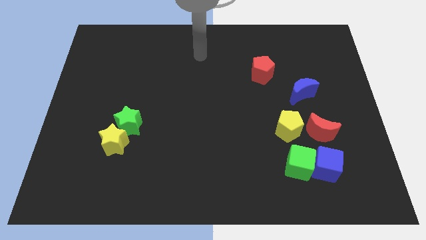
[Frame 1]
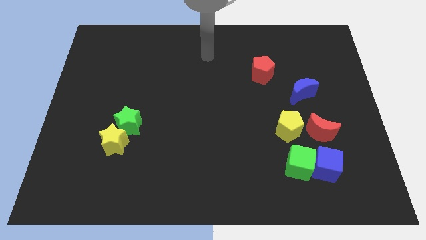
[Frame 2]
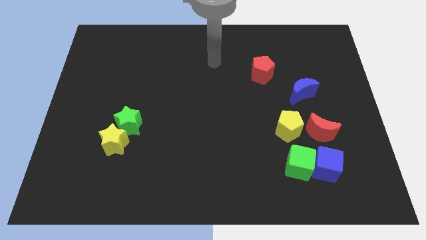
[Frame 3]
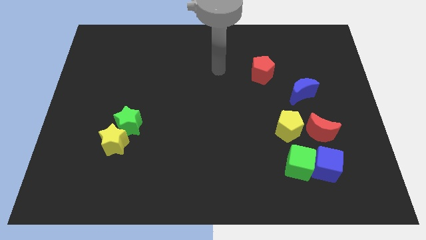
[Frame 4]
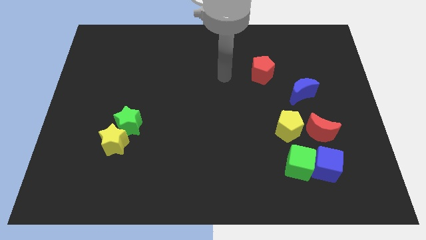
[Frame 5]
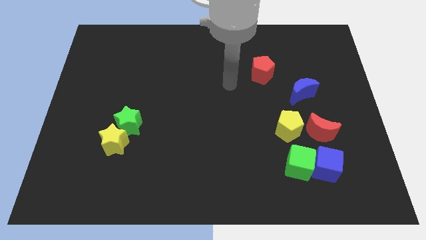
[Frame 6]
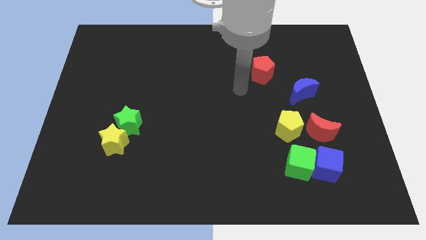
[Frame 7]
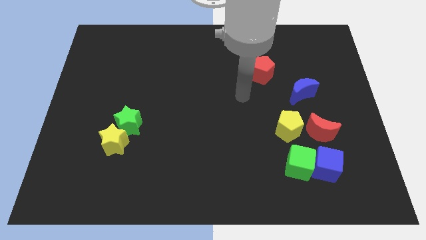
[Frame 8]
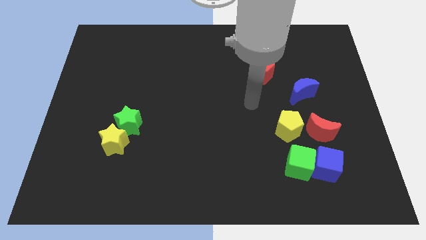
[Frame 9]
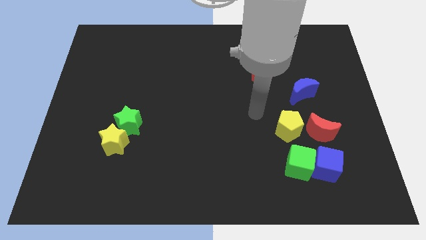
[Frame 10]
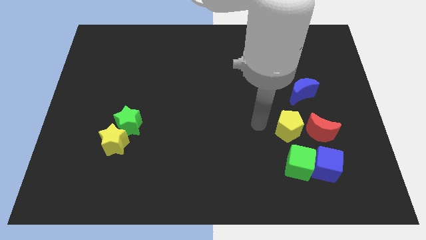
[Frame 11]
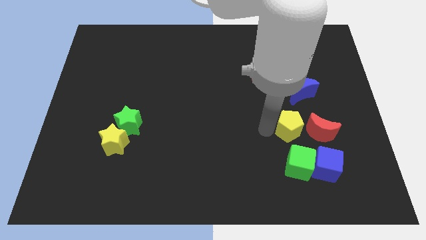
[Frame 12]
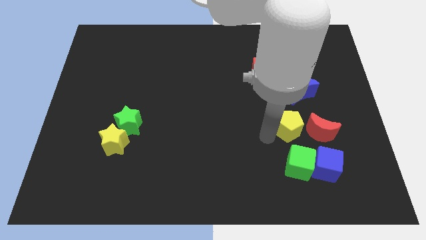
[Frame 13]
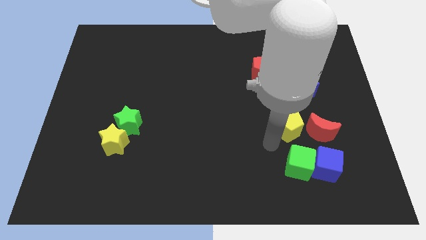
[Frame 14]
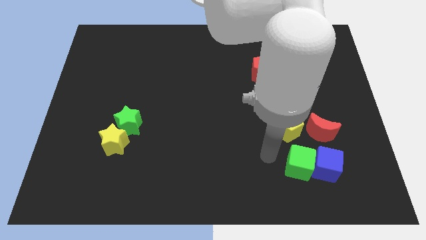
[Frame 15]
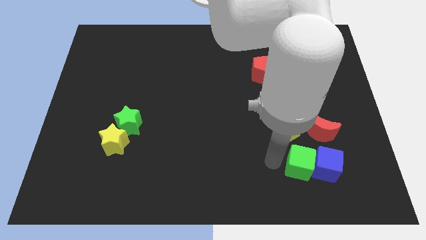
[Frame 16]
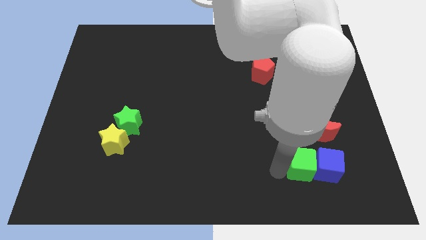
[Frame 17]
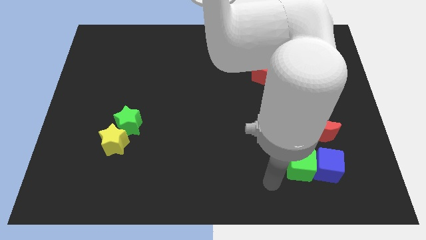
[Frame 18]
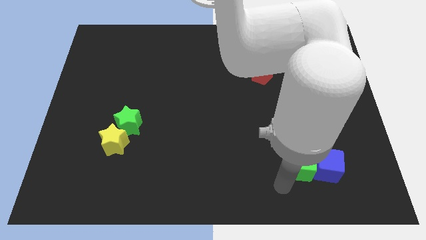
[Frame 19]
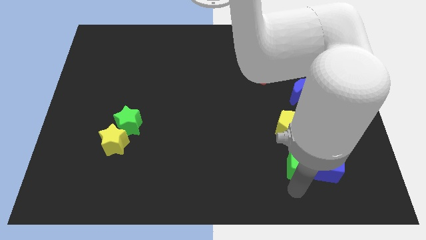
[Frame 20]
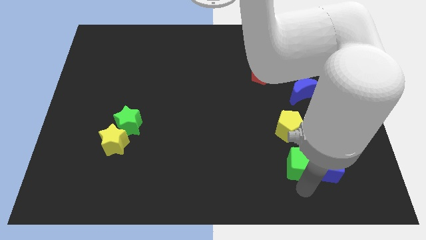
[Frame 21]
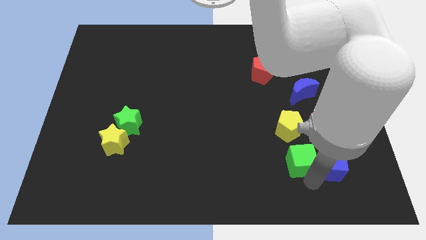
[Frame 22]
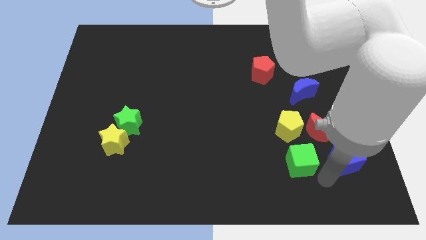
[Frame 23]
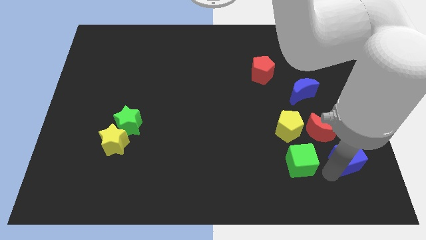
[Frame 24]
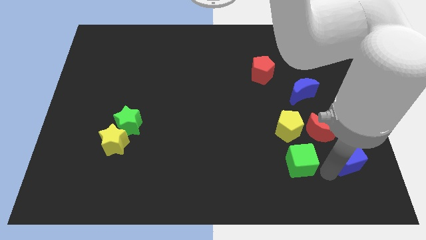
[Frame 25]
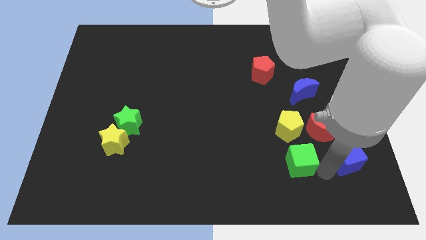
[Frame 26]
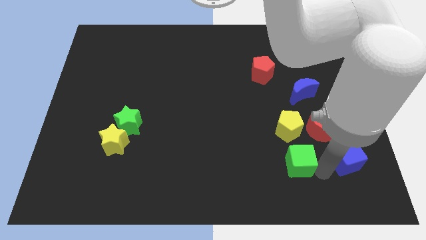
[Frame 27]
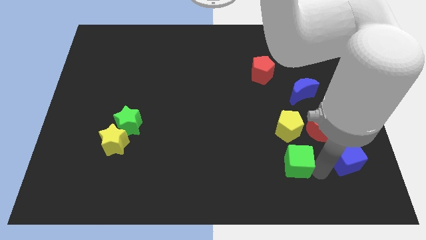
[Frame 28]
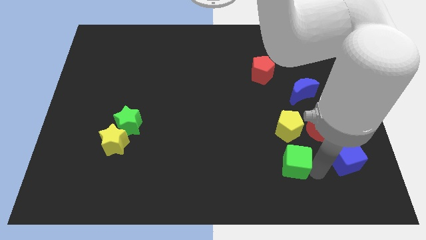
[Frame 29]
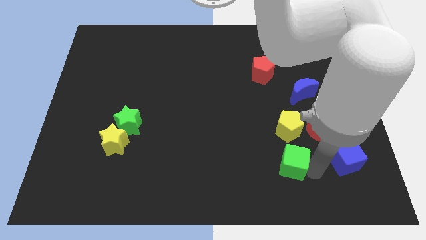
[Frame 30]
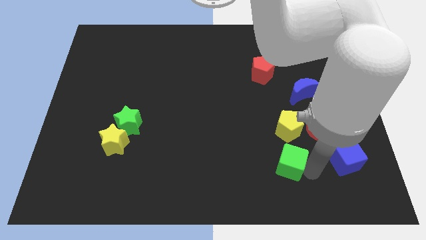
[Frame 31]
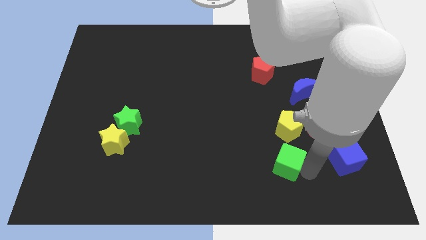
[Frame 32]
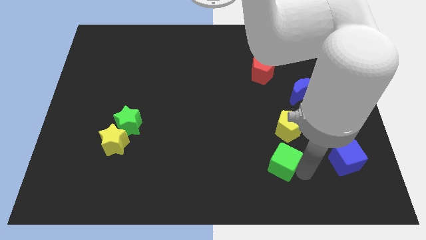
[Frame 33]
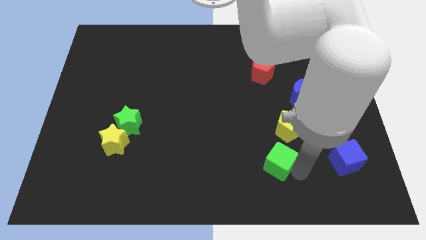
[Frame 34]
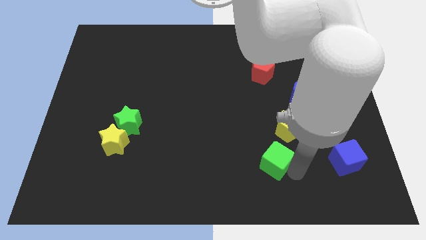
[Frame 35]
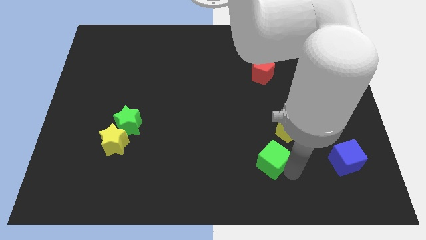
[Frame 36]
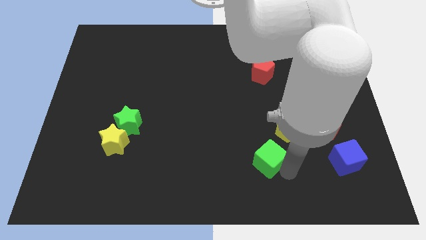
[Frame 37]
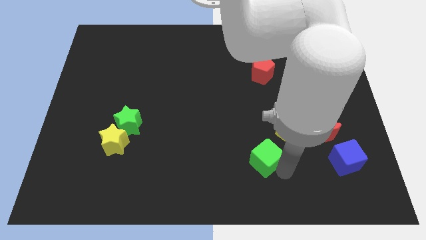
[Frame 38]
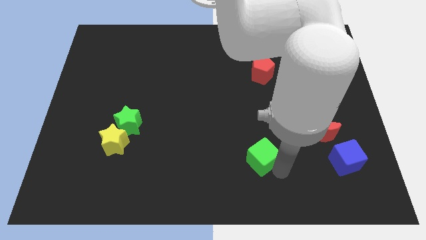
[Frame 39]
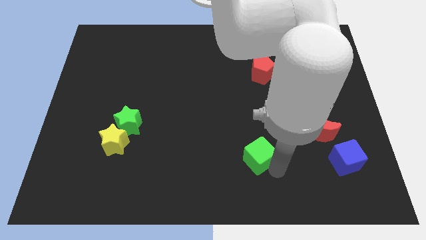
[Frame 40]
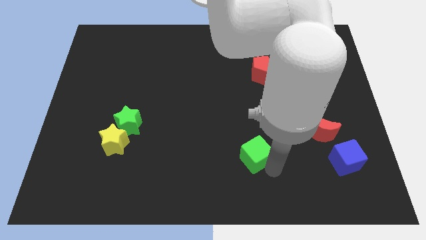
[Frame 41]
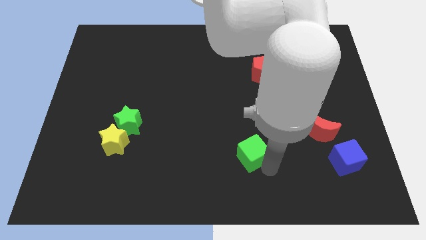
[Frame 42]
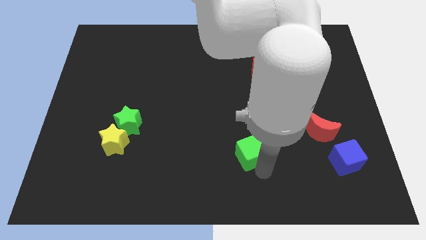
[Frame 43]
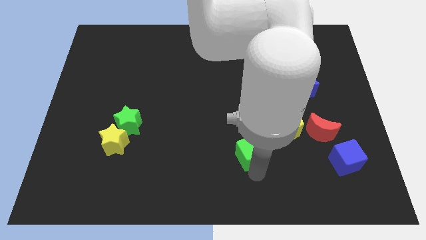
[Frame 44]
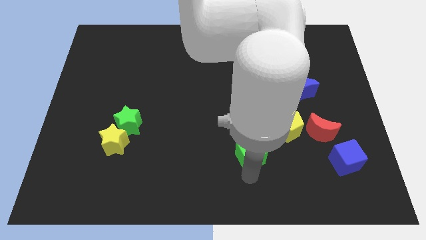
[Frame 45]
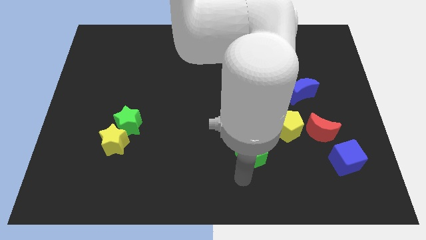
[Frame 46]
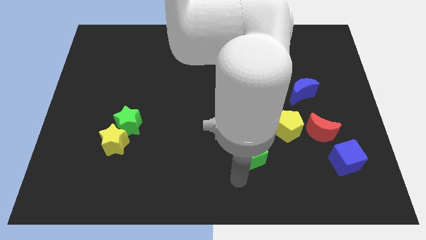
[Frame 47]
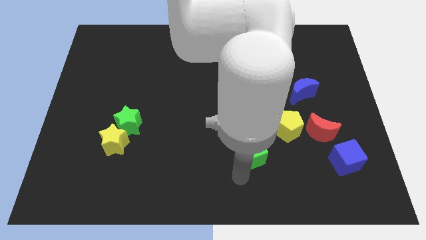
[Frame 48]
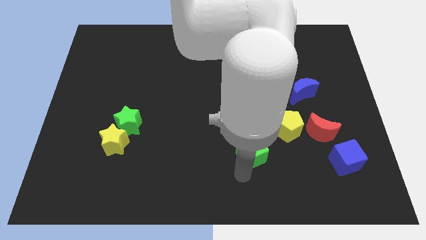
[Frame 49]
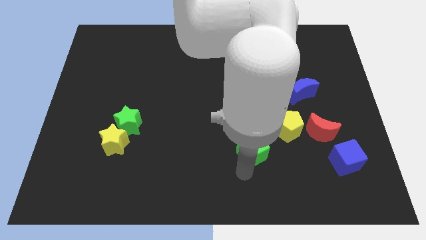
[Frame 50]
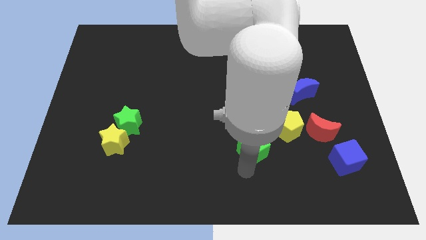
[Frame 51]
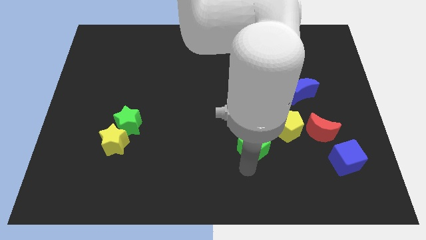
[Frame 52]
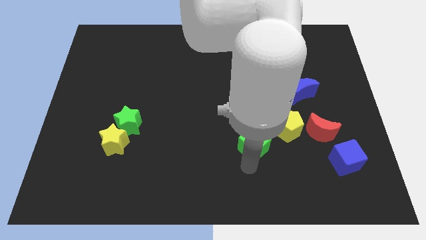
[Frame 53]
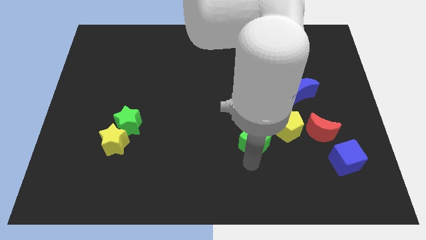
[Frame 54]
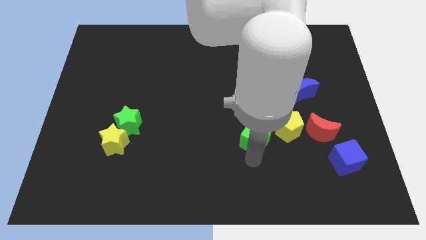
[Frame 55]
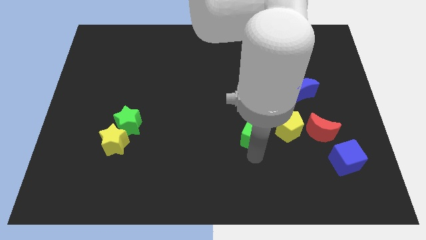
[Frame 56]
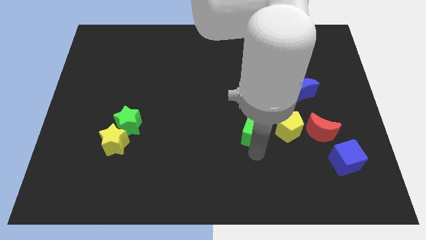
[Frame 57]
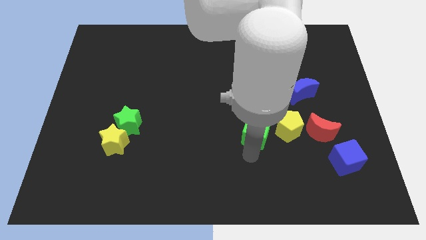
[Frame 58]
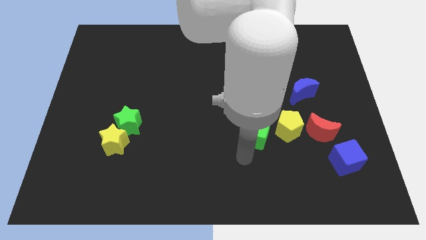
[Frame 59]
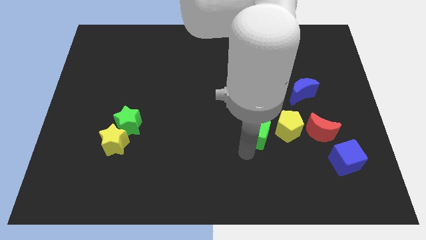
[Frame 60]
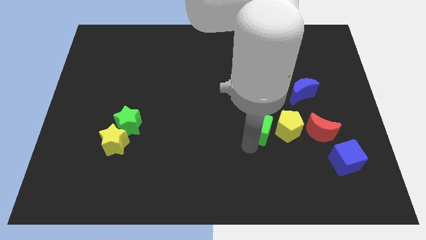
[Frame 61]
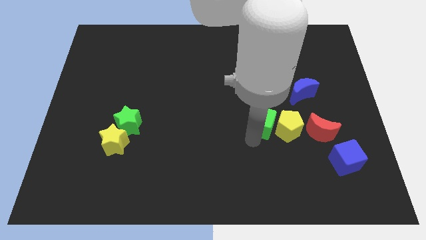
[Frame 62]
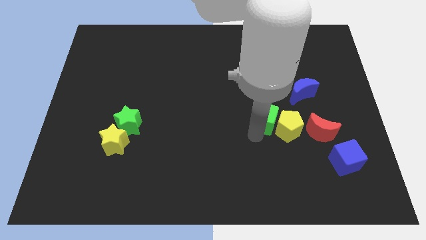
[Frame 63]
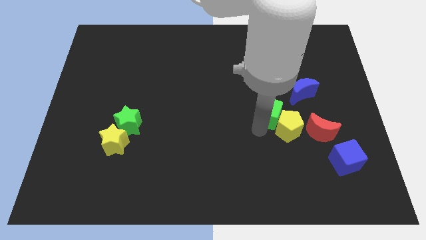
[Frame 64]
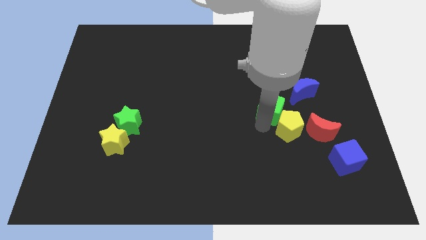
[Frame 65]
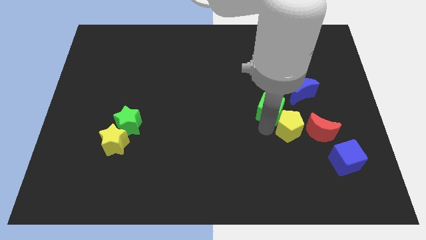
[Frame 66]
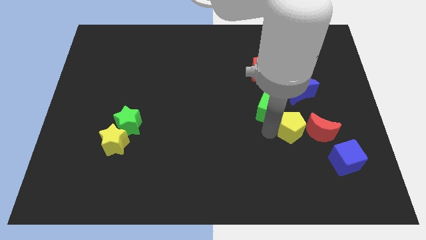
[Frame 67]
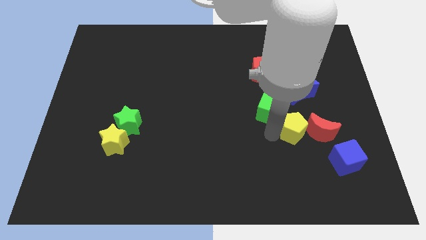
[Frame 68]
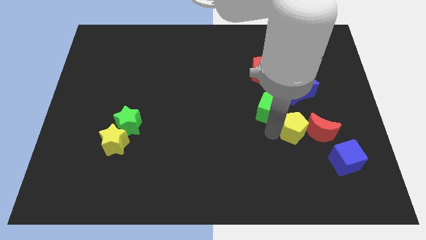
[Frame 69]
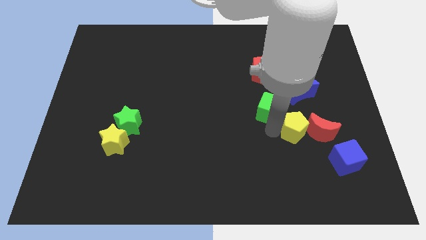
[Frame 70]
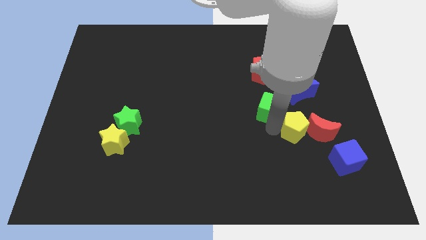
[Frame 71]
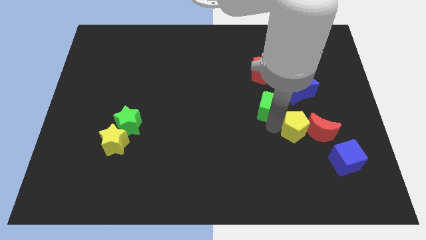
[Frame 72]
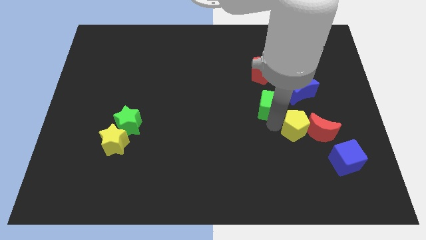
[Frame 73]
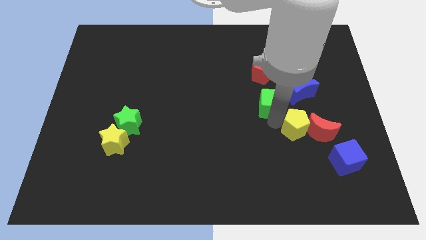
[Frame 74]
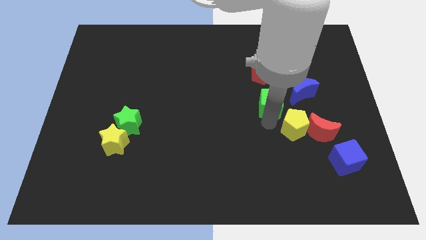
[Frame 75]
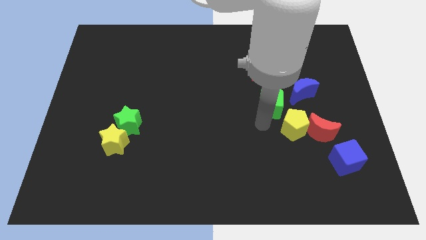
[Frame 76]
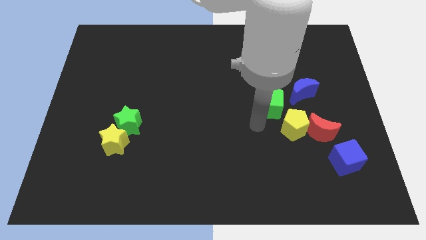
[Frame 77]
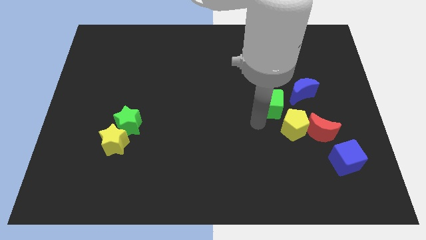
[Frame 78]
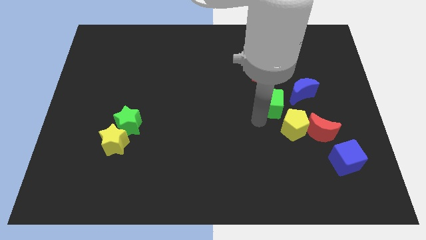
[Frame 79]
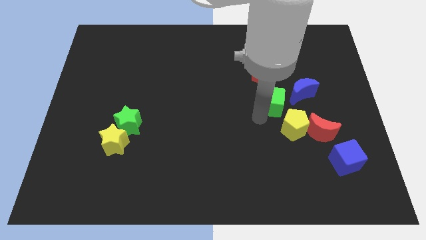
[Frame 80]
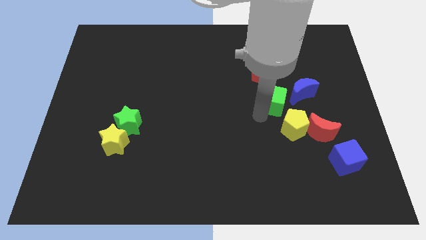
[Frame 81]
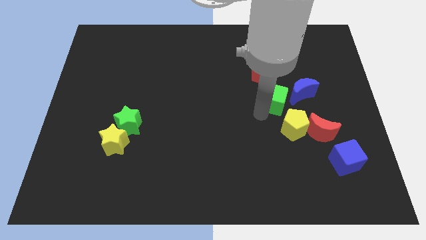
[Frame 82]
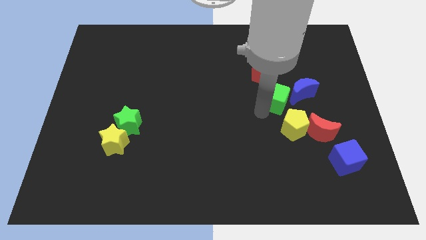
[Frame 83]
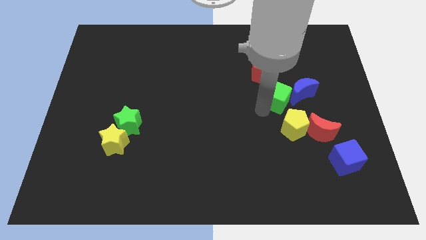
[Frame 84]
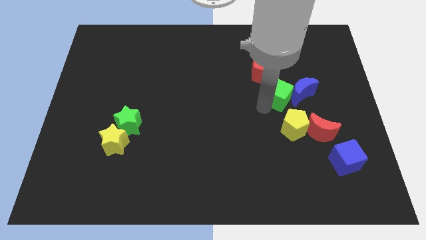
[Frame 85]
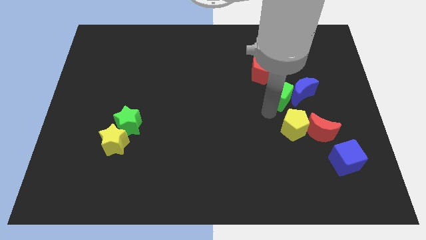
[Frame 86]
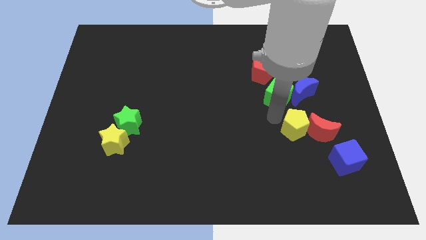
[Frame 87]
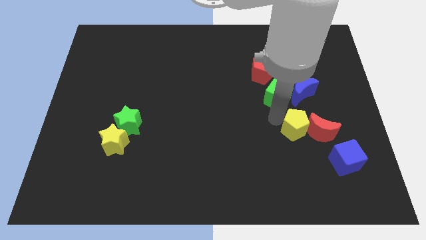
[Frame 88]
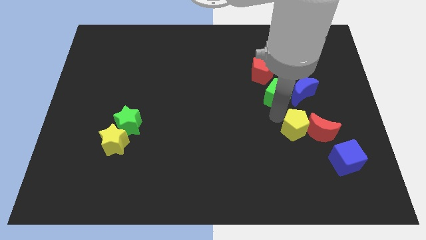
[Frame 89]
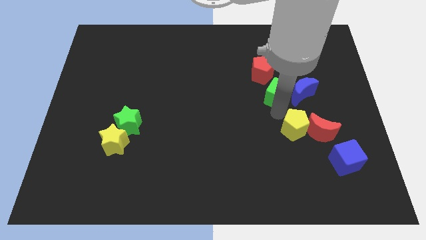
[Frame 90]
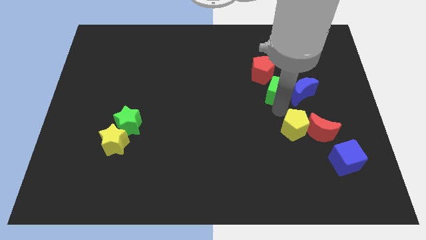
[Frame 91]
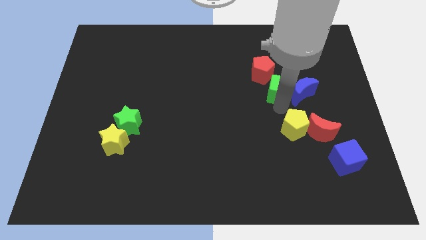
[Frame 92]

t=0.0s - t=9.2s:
move the green cube up
